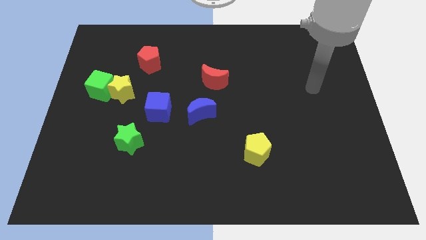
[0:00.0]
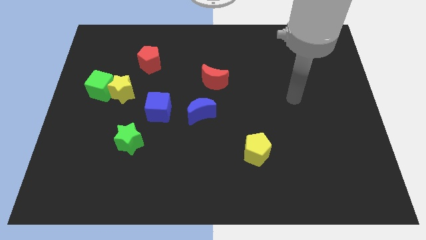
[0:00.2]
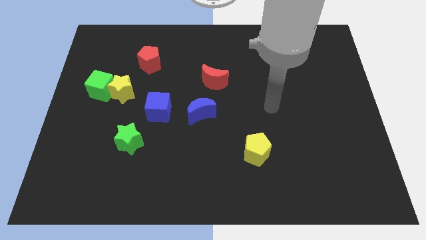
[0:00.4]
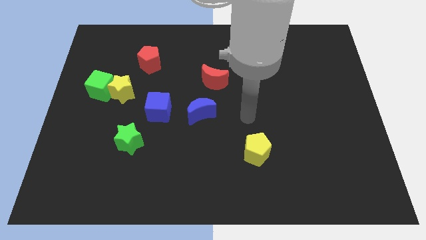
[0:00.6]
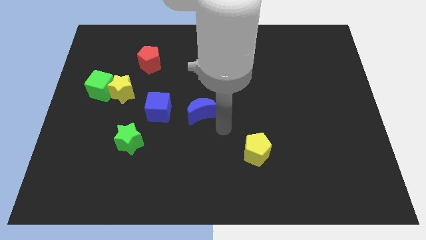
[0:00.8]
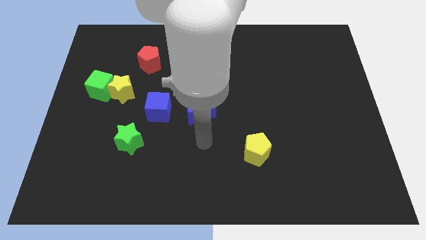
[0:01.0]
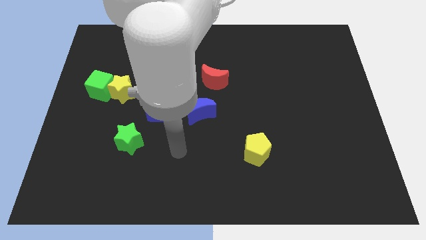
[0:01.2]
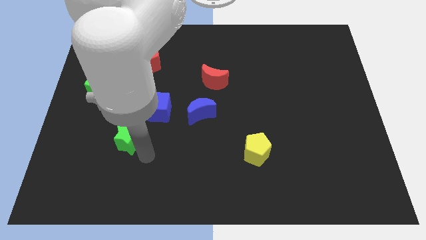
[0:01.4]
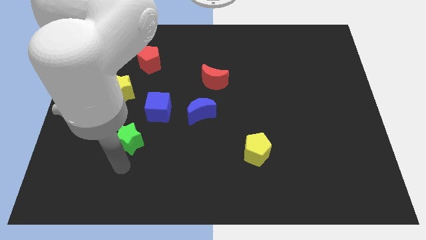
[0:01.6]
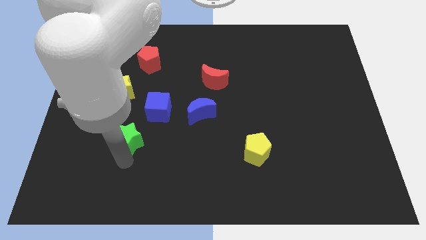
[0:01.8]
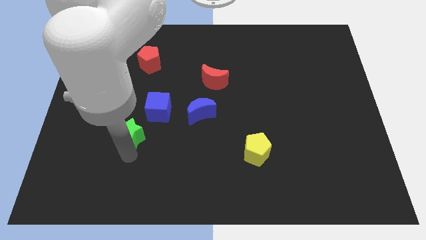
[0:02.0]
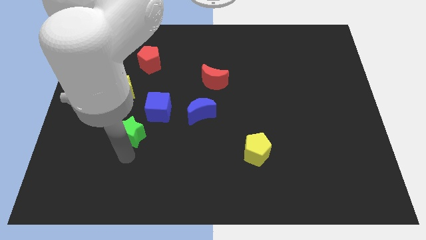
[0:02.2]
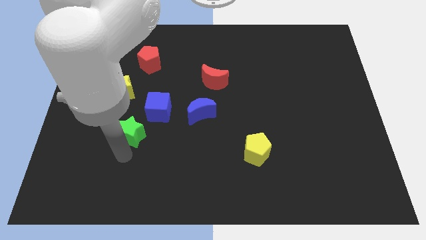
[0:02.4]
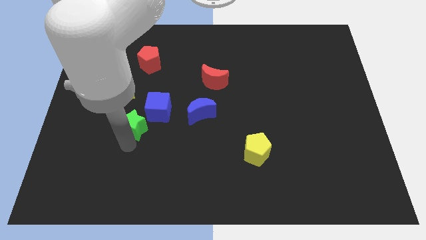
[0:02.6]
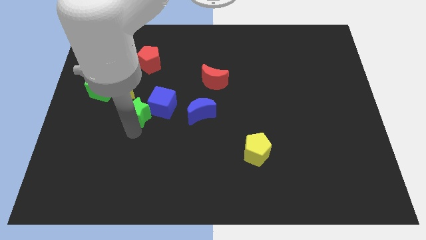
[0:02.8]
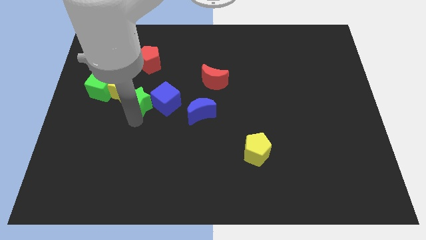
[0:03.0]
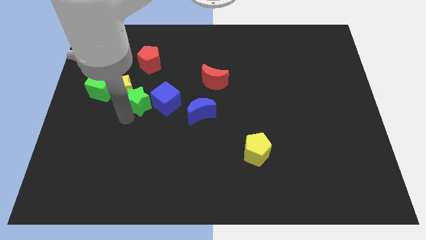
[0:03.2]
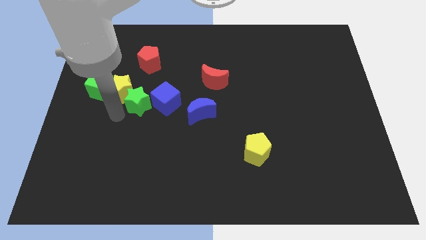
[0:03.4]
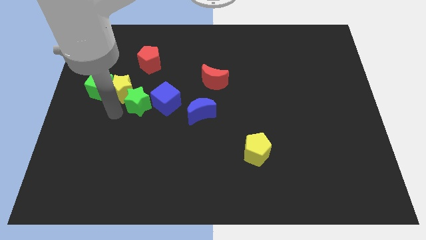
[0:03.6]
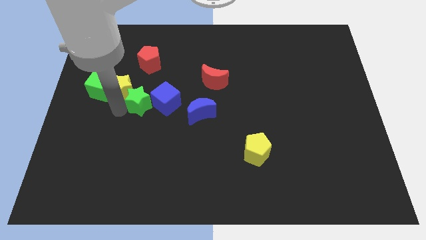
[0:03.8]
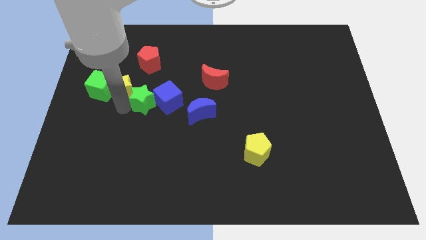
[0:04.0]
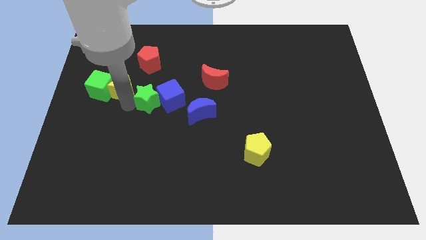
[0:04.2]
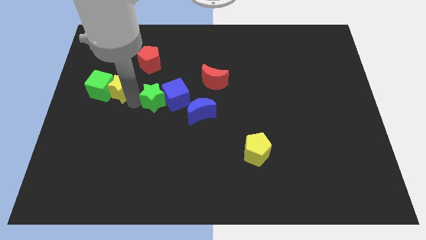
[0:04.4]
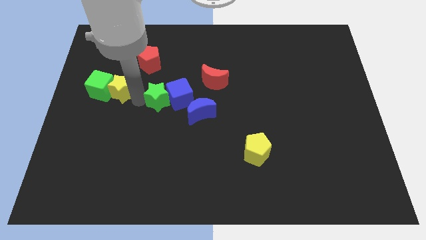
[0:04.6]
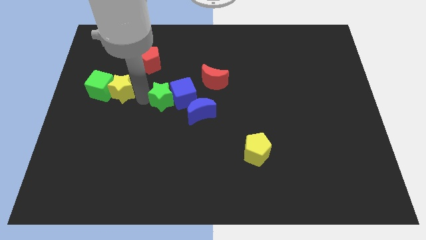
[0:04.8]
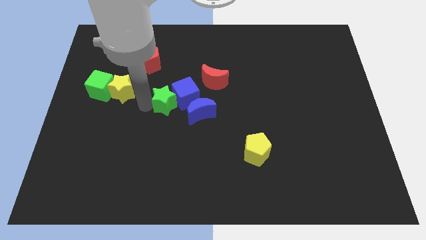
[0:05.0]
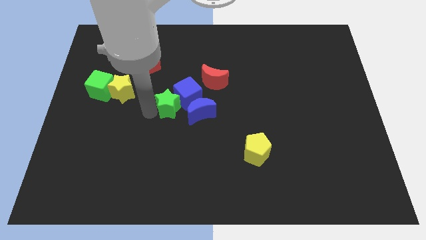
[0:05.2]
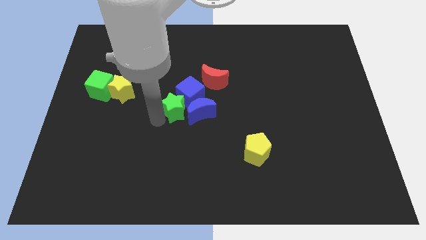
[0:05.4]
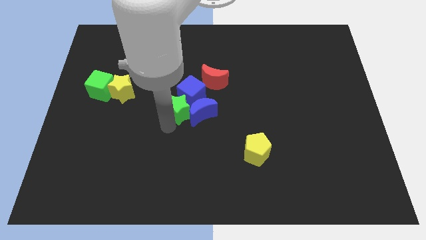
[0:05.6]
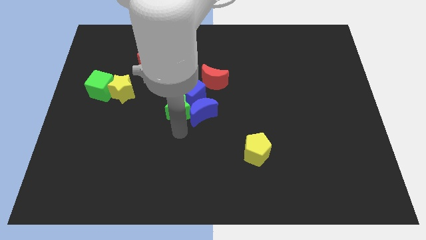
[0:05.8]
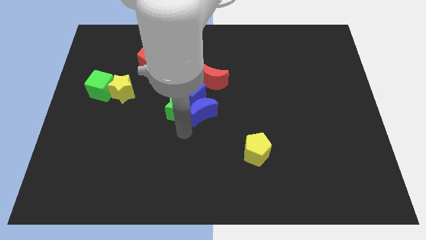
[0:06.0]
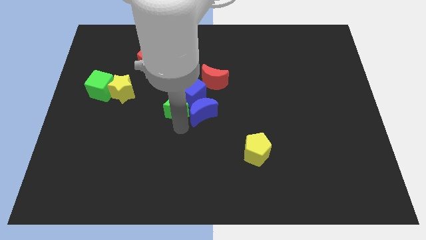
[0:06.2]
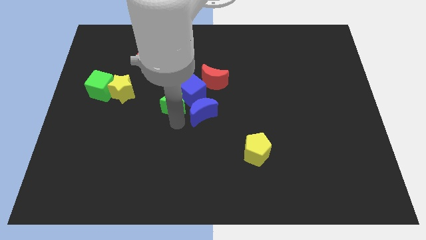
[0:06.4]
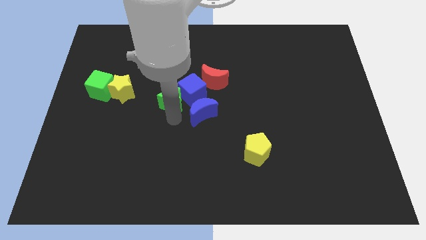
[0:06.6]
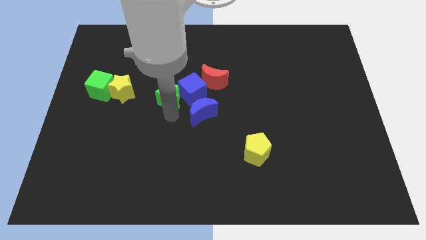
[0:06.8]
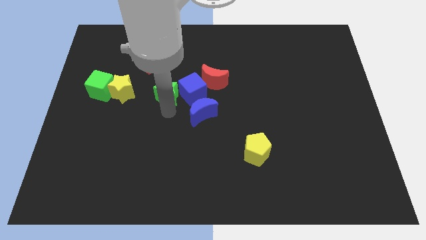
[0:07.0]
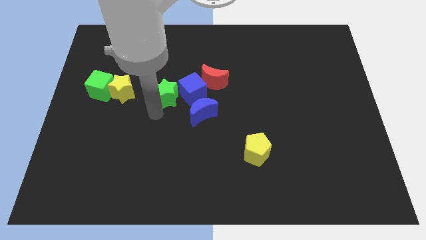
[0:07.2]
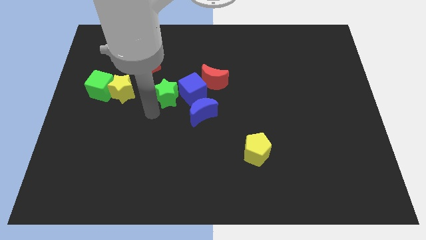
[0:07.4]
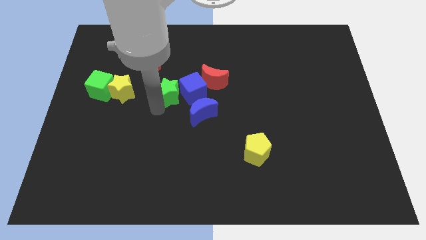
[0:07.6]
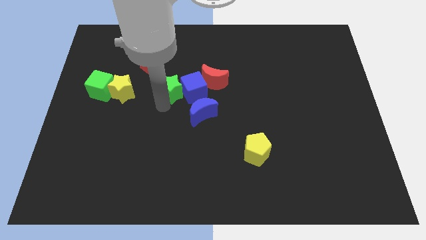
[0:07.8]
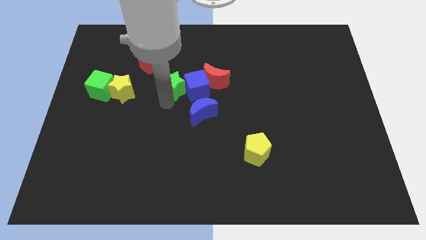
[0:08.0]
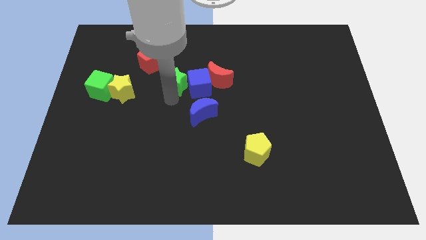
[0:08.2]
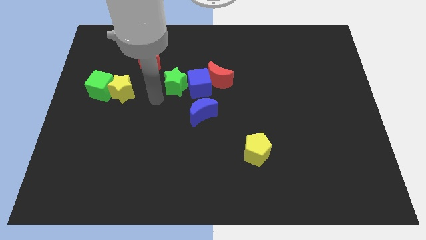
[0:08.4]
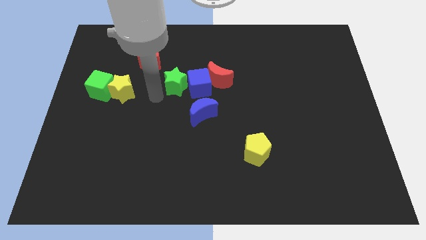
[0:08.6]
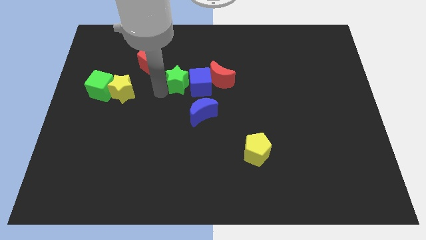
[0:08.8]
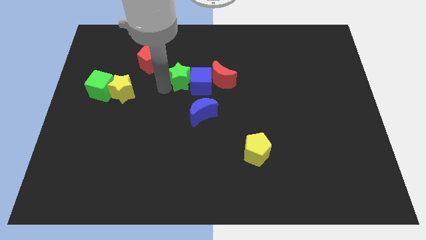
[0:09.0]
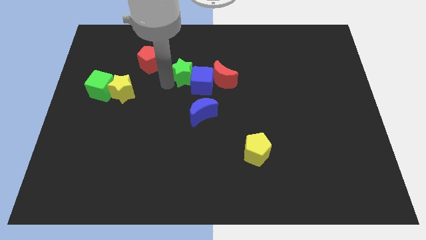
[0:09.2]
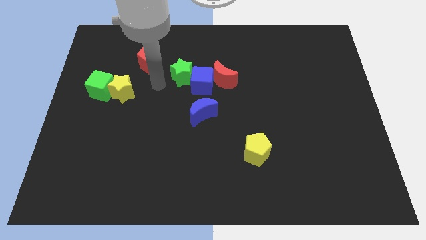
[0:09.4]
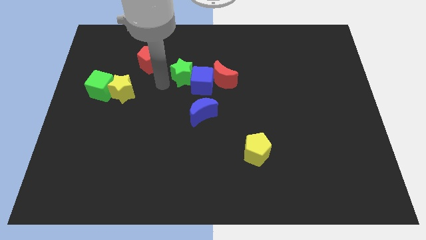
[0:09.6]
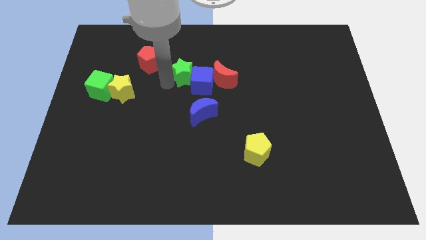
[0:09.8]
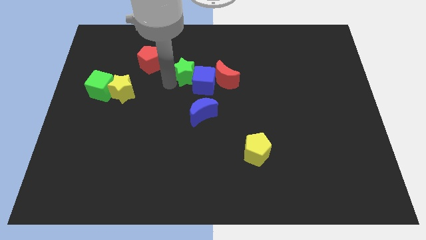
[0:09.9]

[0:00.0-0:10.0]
push the green star up and right diagonally

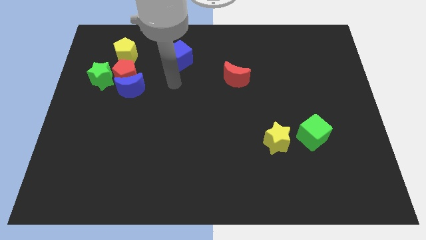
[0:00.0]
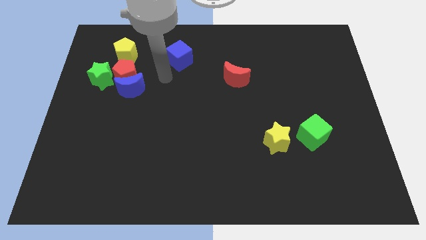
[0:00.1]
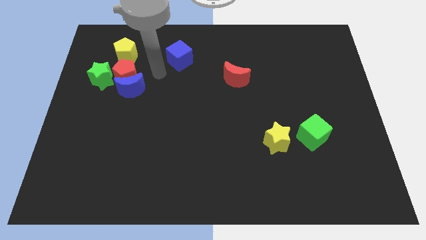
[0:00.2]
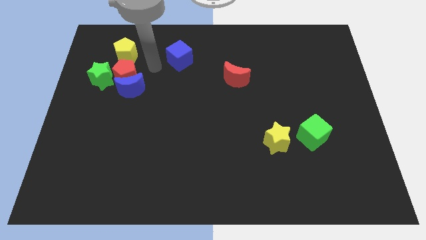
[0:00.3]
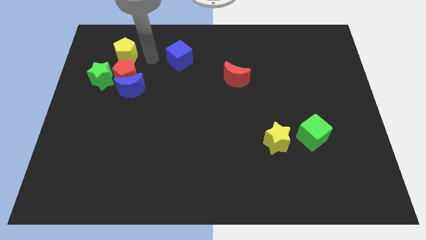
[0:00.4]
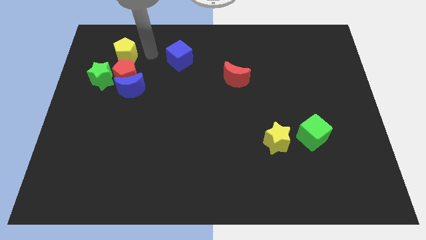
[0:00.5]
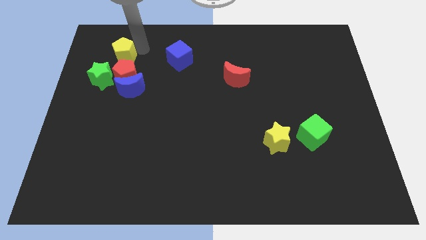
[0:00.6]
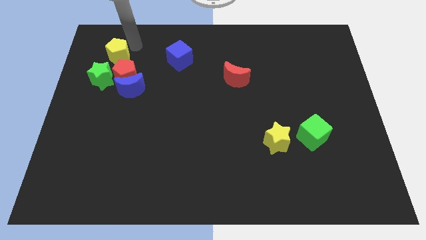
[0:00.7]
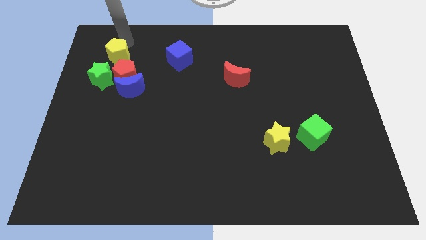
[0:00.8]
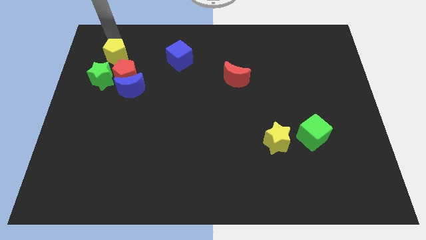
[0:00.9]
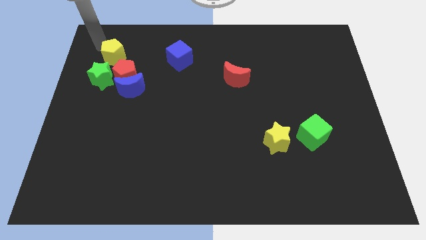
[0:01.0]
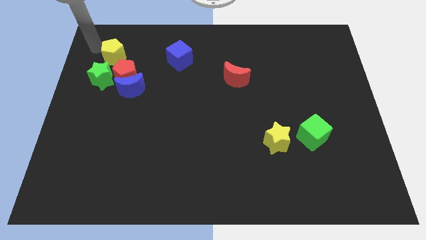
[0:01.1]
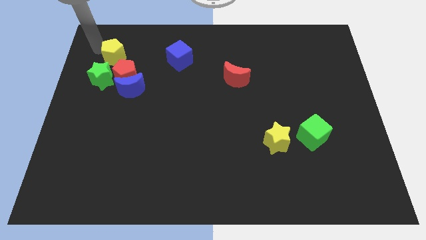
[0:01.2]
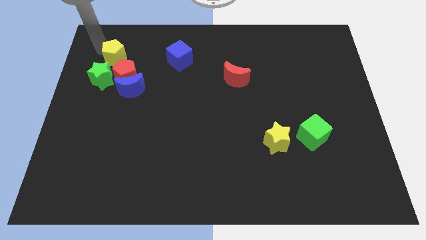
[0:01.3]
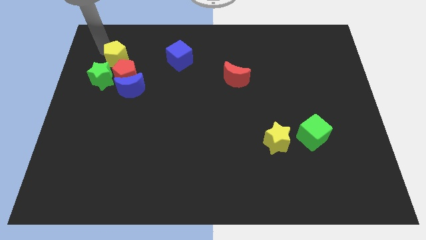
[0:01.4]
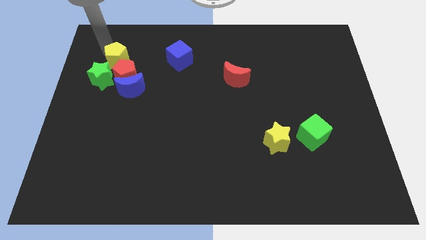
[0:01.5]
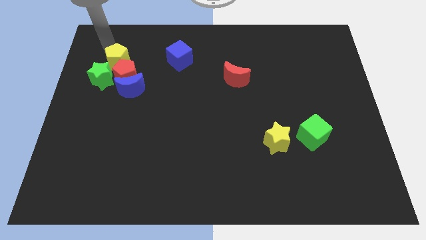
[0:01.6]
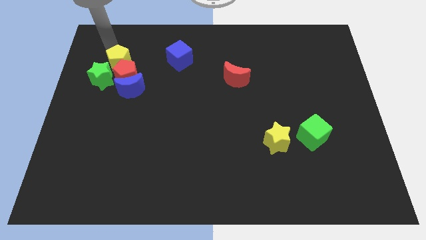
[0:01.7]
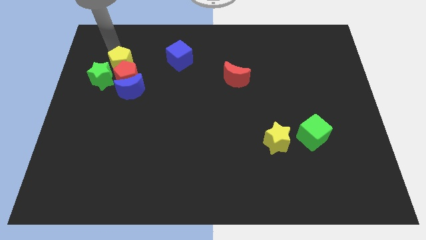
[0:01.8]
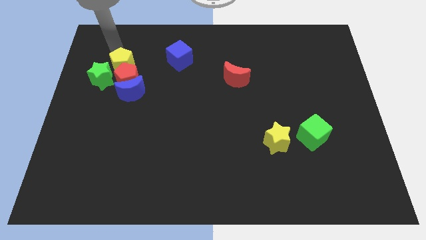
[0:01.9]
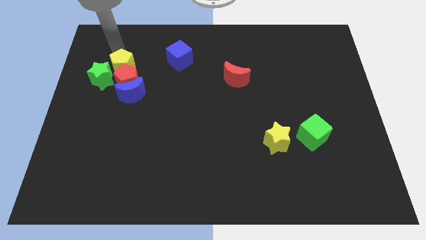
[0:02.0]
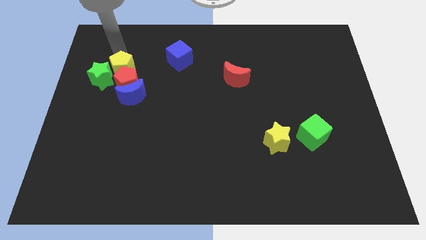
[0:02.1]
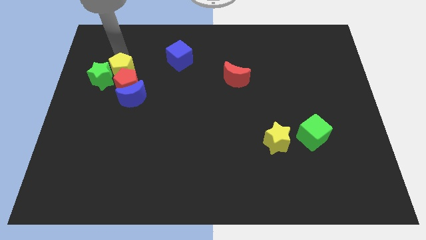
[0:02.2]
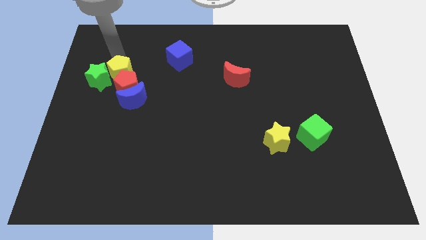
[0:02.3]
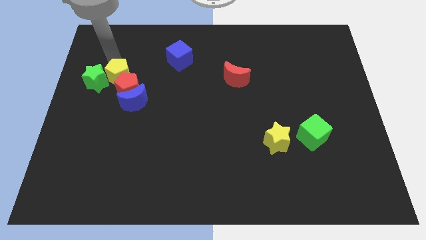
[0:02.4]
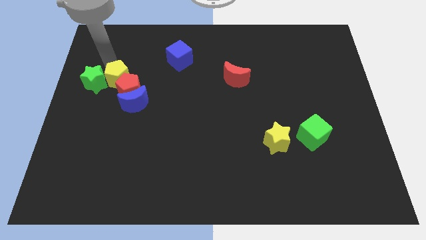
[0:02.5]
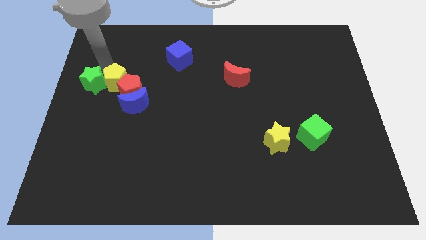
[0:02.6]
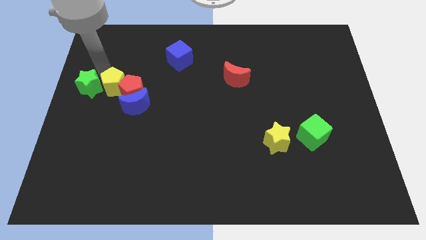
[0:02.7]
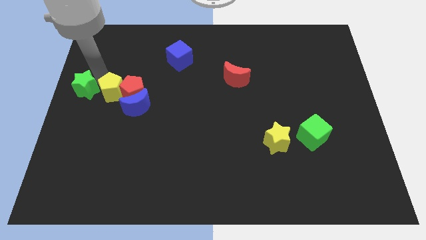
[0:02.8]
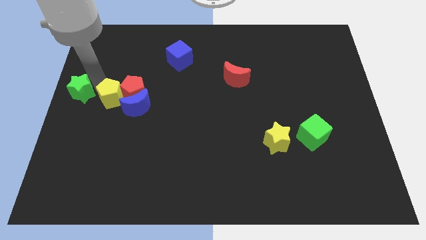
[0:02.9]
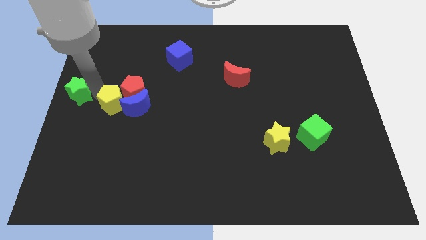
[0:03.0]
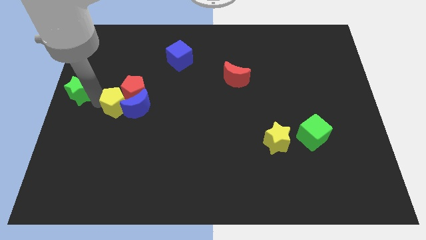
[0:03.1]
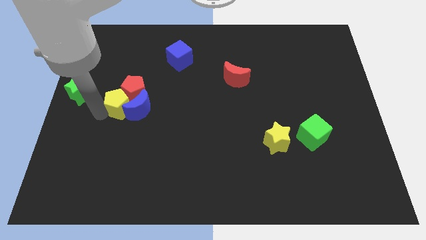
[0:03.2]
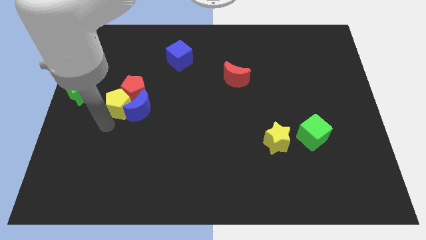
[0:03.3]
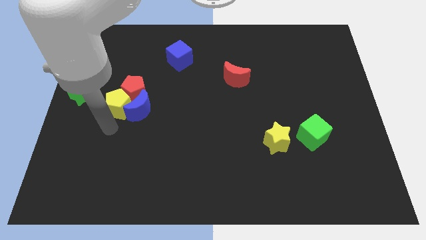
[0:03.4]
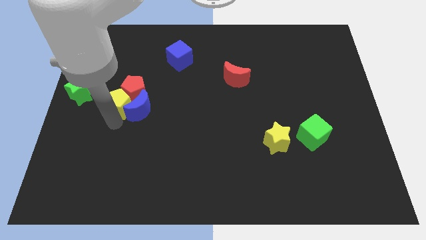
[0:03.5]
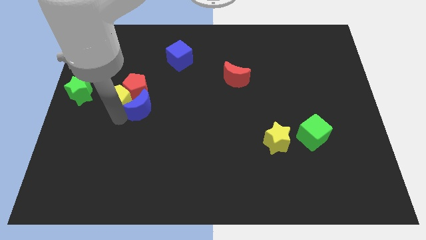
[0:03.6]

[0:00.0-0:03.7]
slightly slide the yellow pentagon diagonally down and right
